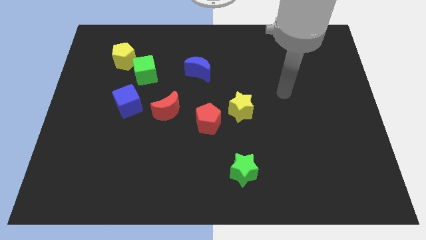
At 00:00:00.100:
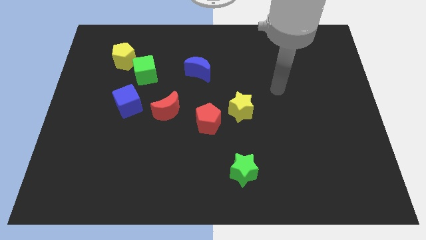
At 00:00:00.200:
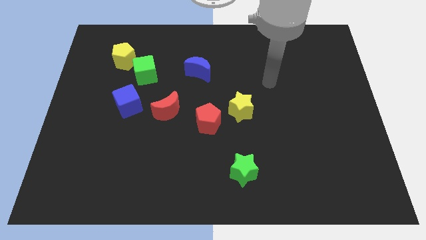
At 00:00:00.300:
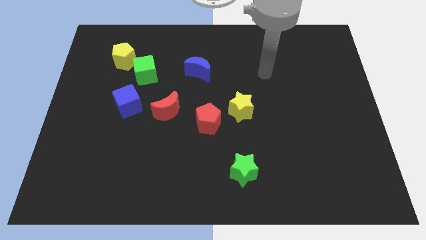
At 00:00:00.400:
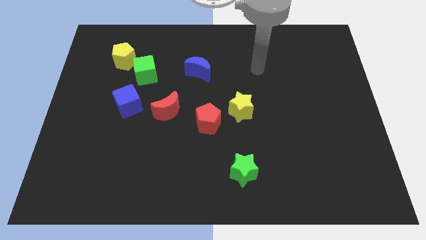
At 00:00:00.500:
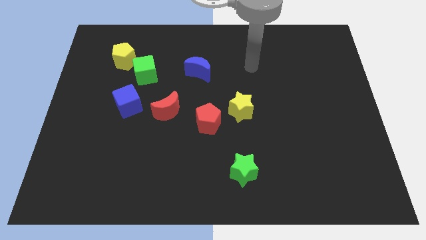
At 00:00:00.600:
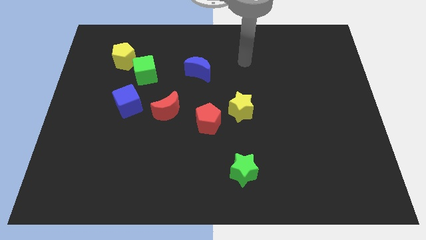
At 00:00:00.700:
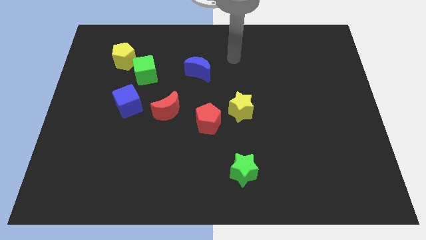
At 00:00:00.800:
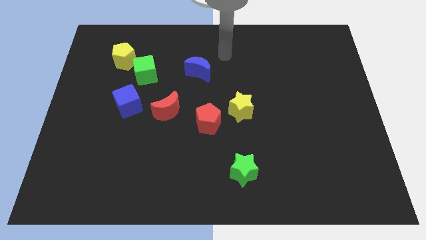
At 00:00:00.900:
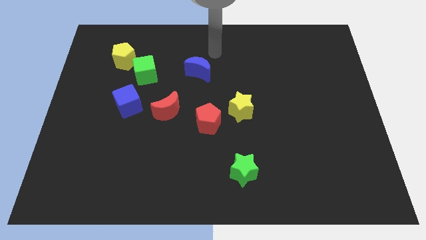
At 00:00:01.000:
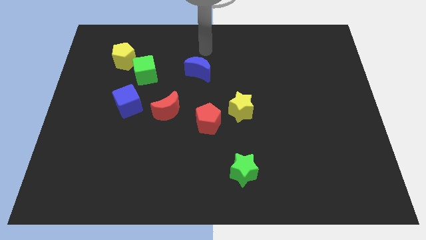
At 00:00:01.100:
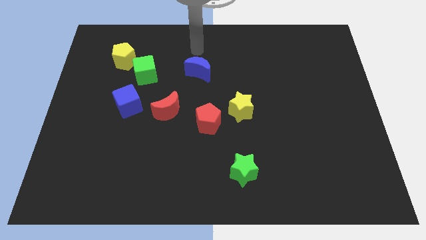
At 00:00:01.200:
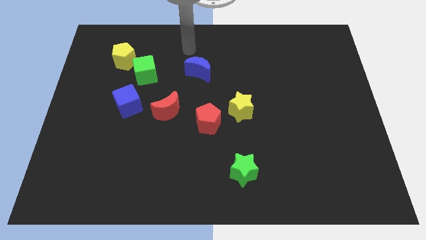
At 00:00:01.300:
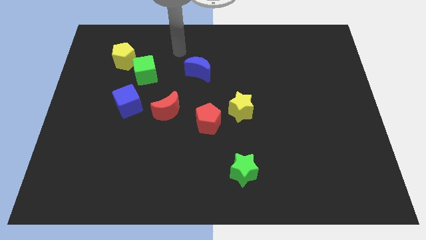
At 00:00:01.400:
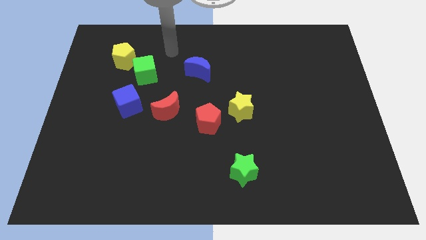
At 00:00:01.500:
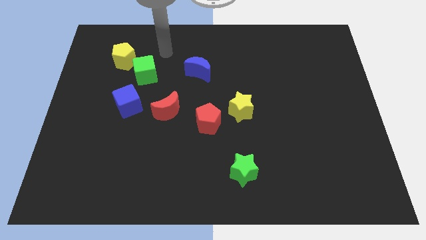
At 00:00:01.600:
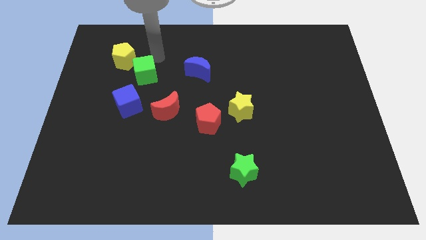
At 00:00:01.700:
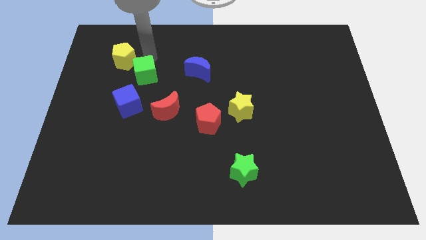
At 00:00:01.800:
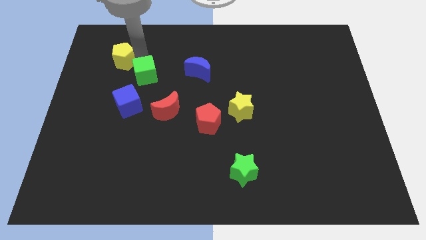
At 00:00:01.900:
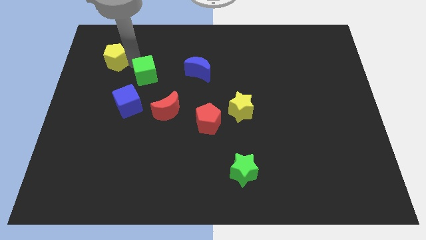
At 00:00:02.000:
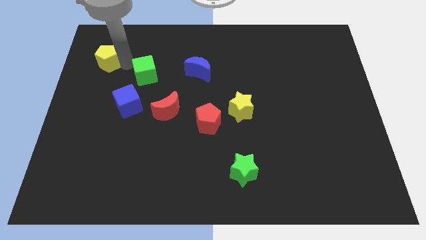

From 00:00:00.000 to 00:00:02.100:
pull the green cube apart from the yellow pentagon

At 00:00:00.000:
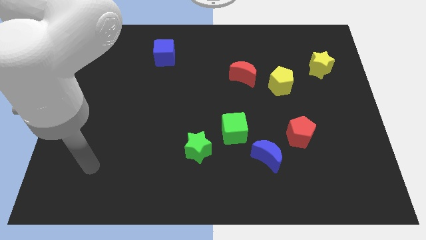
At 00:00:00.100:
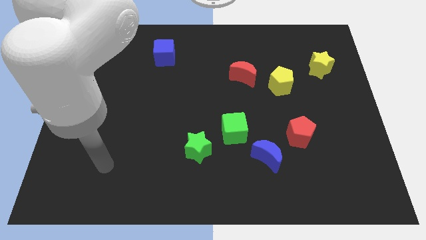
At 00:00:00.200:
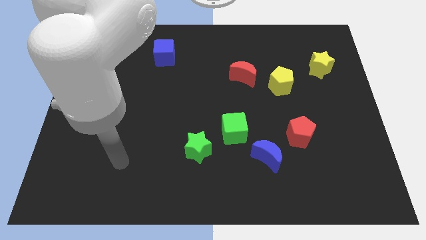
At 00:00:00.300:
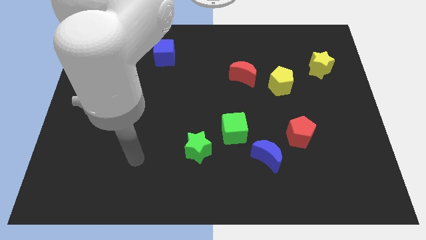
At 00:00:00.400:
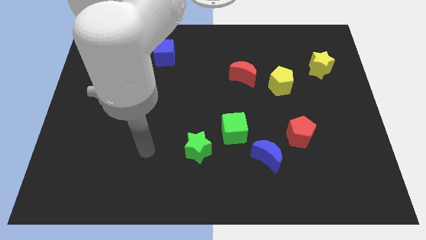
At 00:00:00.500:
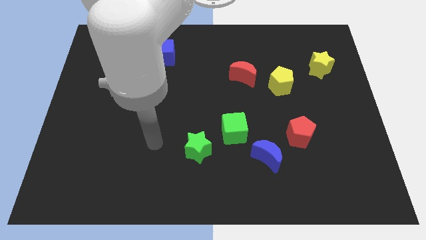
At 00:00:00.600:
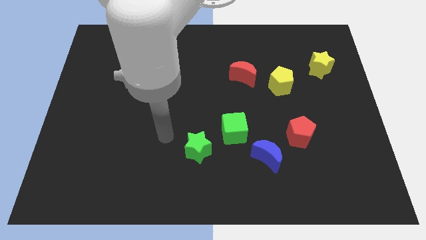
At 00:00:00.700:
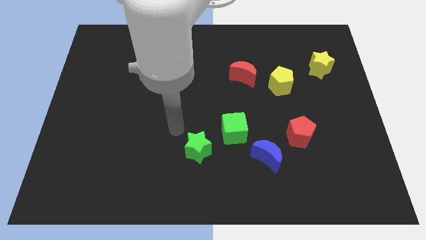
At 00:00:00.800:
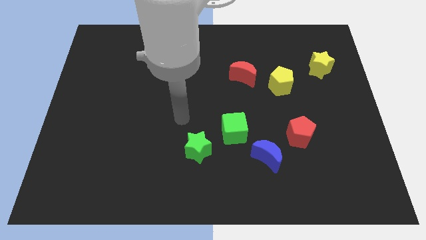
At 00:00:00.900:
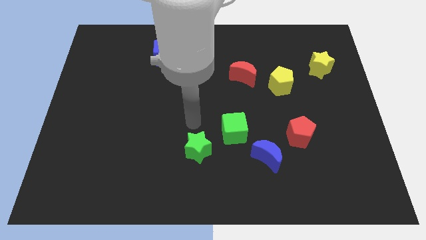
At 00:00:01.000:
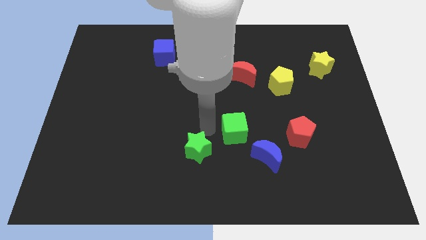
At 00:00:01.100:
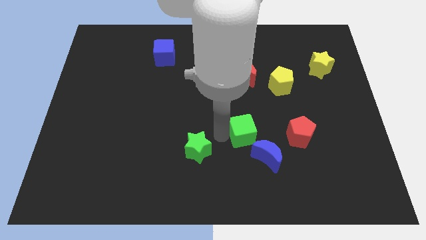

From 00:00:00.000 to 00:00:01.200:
pull the green star apart from the green cube

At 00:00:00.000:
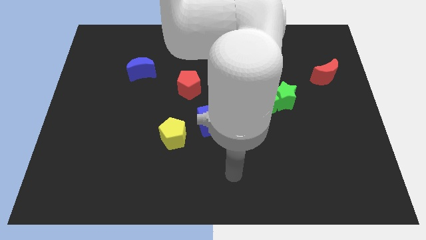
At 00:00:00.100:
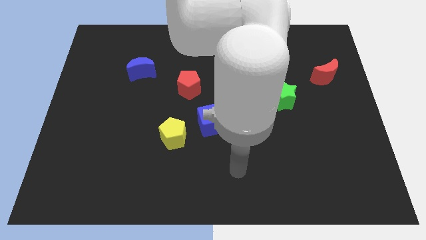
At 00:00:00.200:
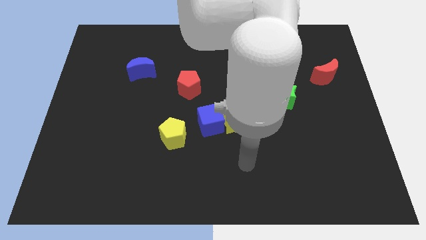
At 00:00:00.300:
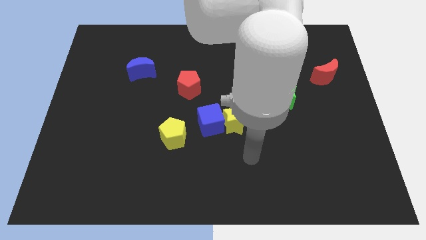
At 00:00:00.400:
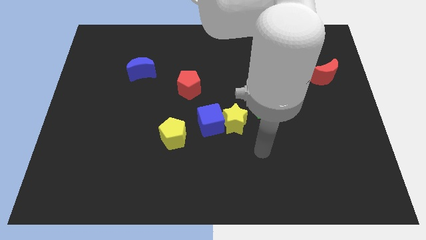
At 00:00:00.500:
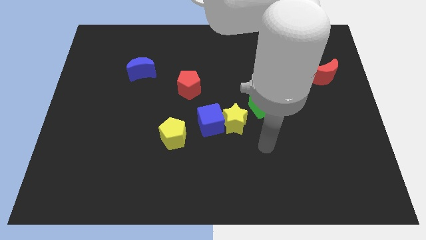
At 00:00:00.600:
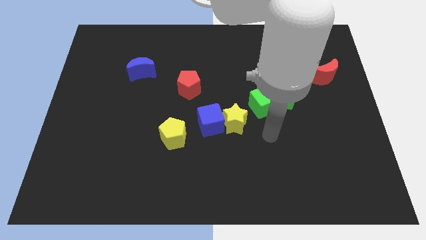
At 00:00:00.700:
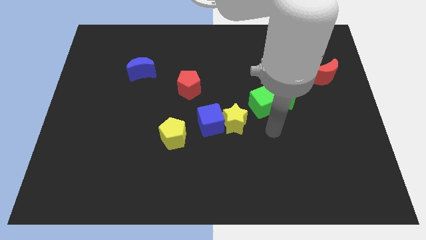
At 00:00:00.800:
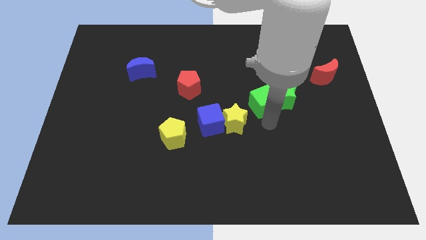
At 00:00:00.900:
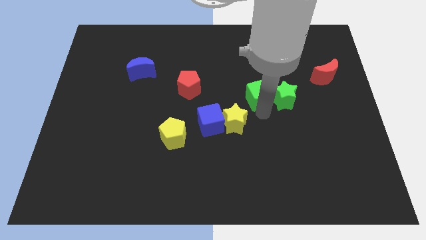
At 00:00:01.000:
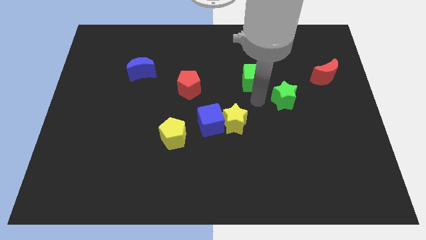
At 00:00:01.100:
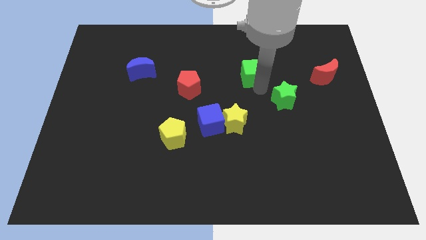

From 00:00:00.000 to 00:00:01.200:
move the green star away from the green cube

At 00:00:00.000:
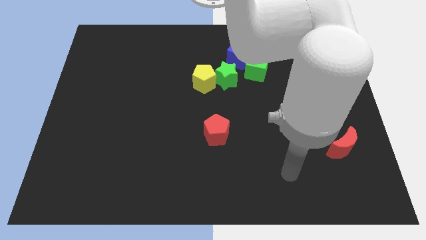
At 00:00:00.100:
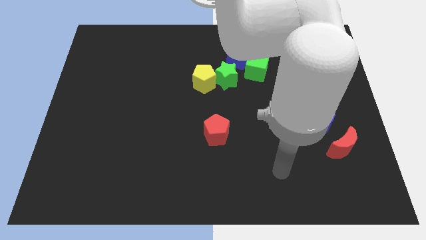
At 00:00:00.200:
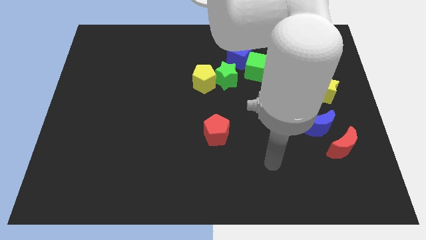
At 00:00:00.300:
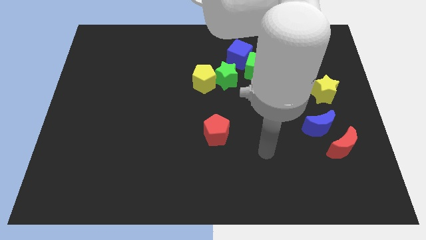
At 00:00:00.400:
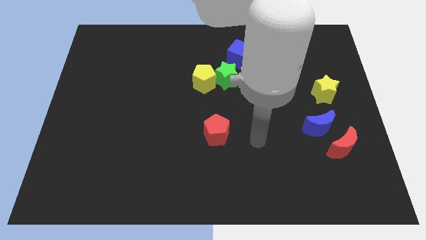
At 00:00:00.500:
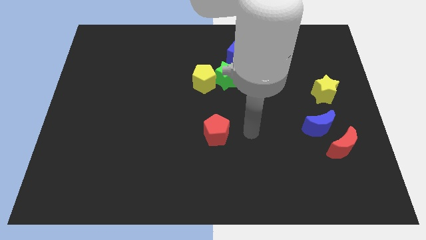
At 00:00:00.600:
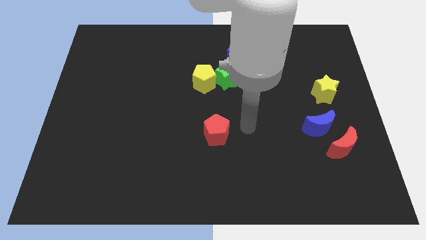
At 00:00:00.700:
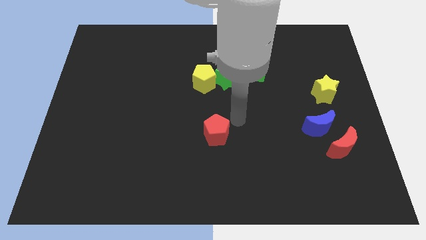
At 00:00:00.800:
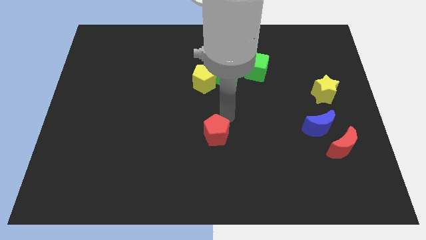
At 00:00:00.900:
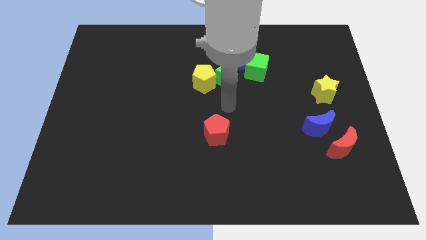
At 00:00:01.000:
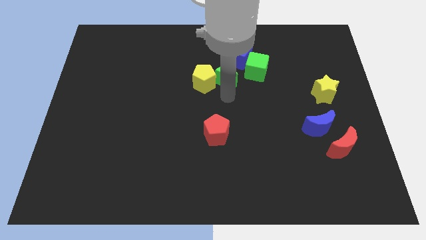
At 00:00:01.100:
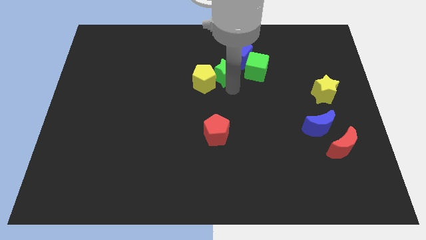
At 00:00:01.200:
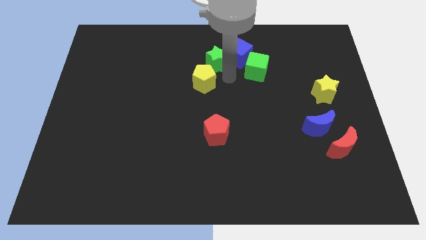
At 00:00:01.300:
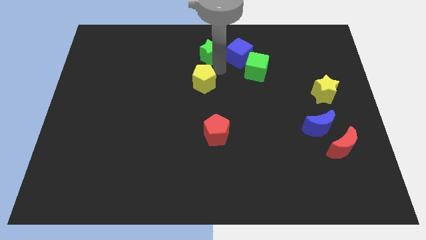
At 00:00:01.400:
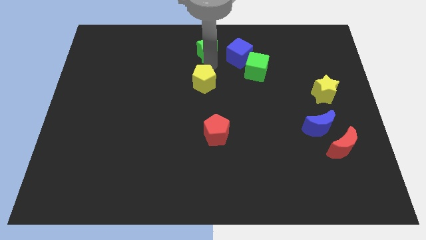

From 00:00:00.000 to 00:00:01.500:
separate the yellow pentagon from the green star

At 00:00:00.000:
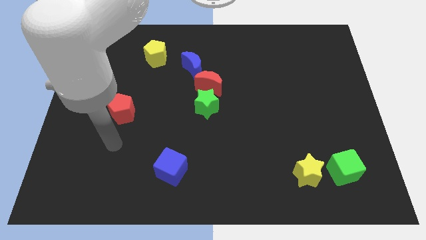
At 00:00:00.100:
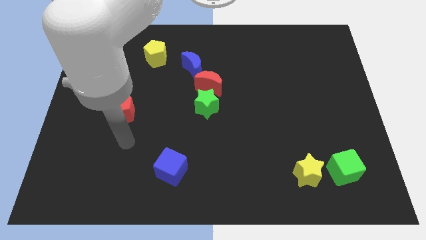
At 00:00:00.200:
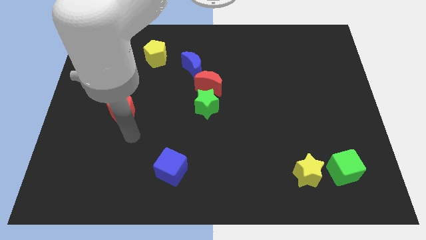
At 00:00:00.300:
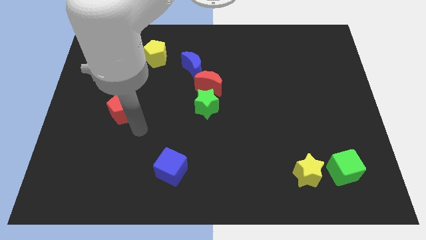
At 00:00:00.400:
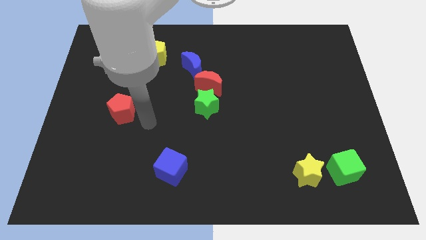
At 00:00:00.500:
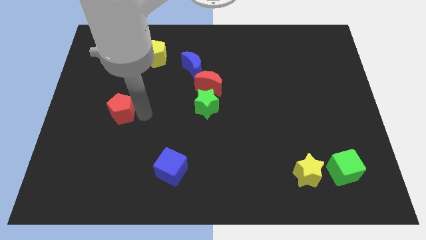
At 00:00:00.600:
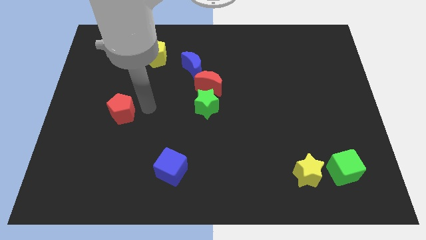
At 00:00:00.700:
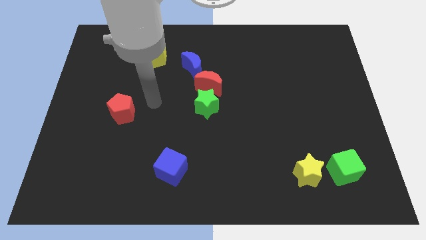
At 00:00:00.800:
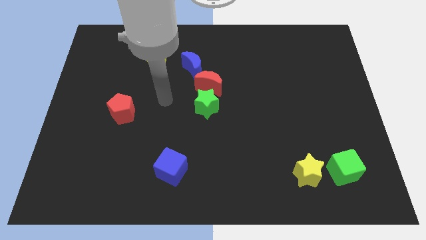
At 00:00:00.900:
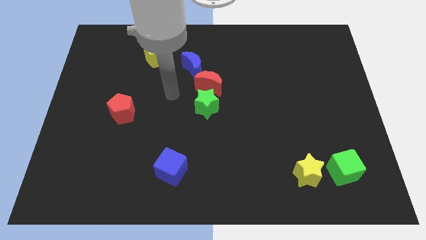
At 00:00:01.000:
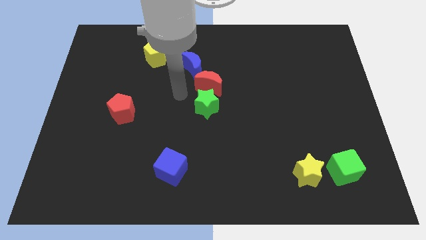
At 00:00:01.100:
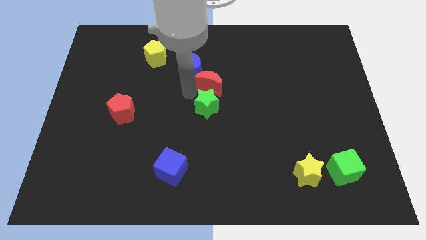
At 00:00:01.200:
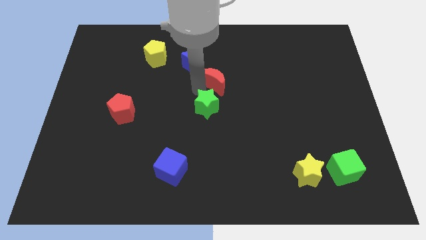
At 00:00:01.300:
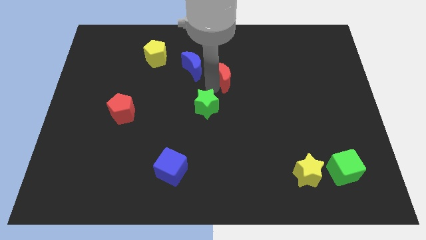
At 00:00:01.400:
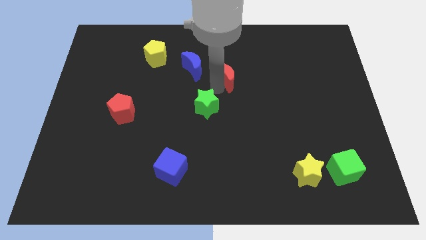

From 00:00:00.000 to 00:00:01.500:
move the green star away from the red moon

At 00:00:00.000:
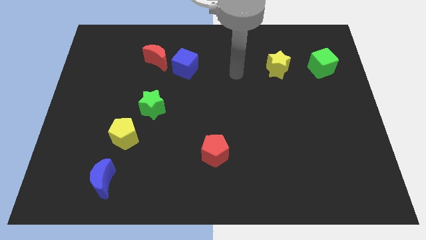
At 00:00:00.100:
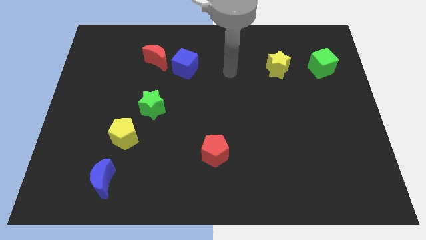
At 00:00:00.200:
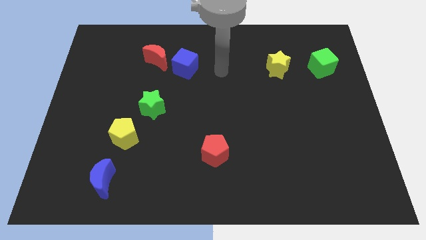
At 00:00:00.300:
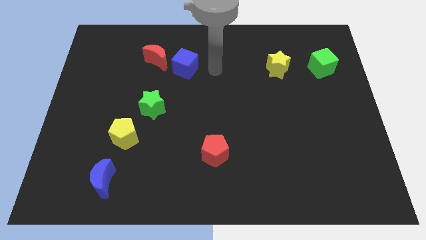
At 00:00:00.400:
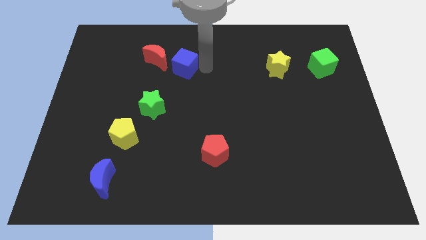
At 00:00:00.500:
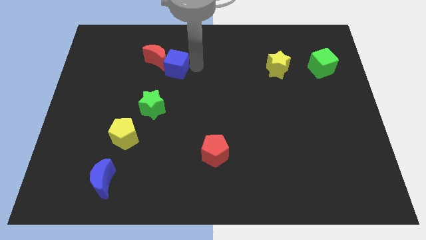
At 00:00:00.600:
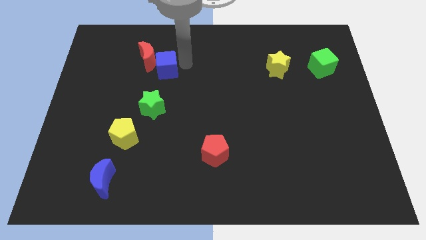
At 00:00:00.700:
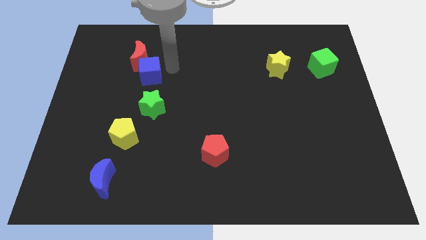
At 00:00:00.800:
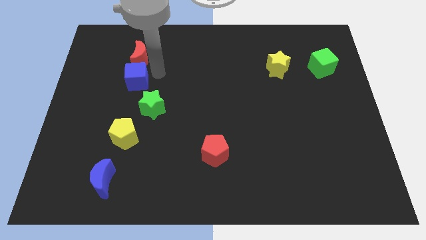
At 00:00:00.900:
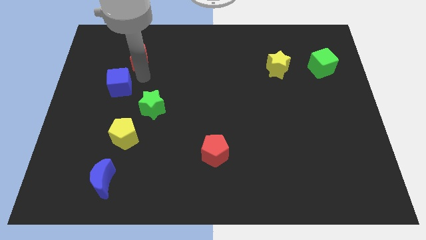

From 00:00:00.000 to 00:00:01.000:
separate the red moon from the blue cube

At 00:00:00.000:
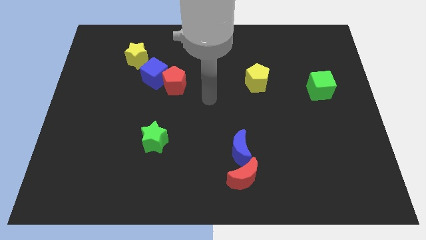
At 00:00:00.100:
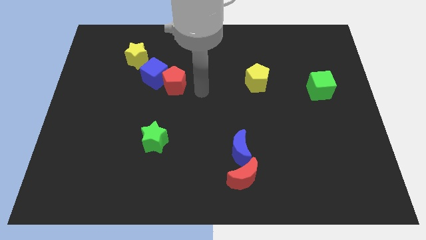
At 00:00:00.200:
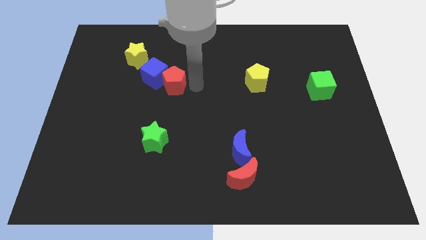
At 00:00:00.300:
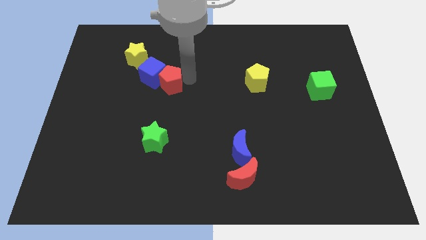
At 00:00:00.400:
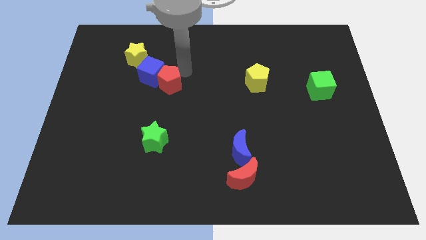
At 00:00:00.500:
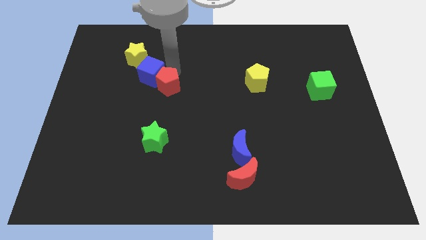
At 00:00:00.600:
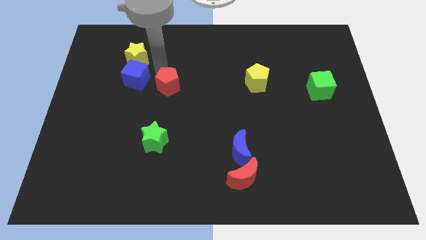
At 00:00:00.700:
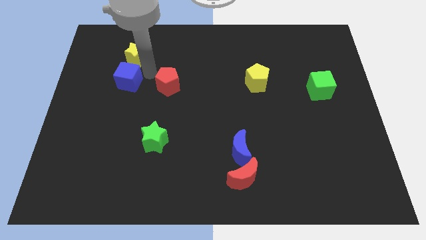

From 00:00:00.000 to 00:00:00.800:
move the red pentagon away from the blue cube
